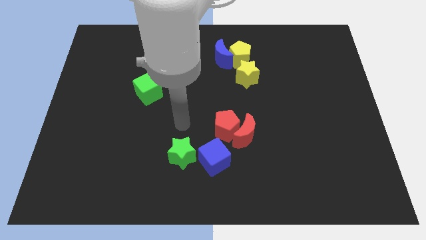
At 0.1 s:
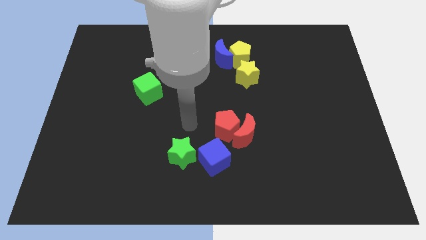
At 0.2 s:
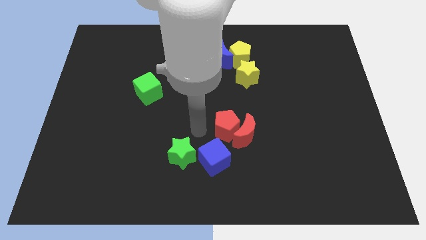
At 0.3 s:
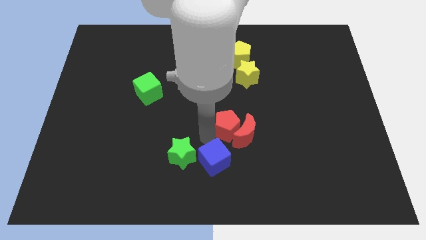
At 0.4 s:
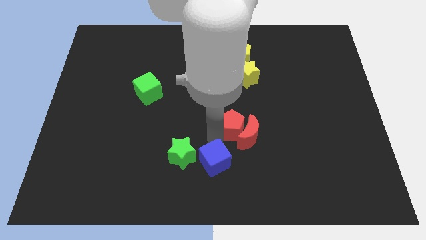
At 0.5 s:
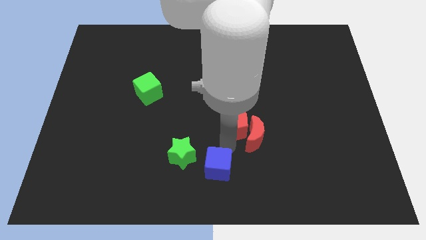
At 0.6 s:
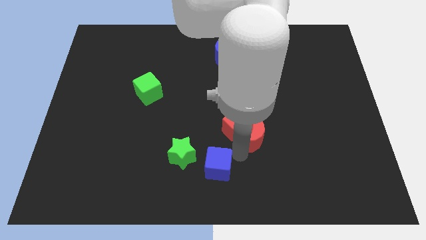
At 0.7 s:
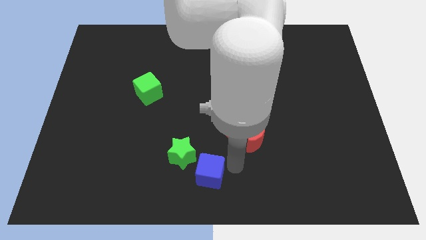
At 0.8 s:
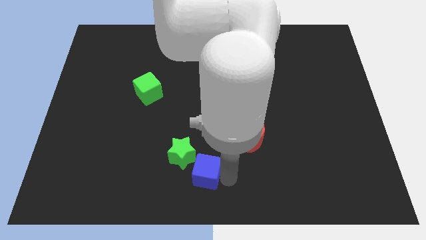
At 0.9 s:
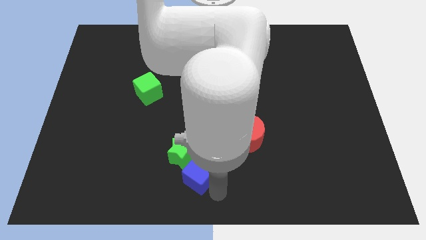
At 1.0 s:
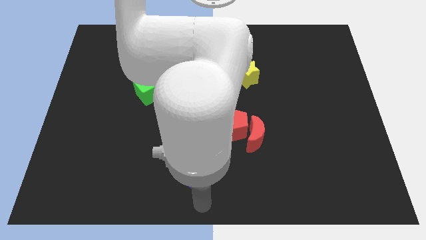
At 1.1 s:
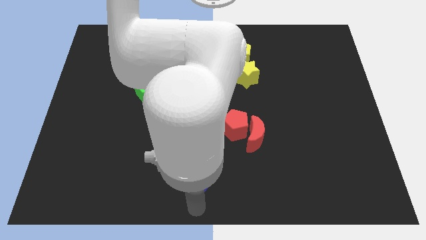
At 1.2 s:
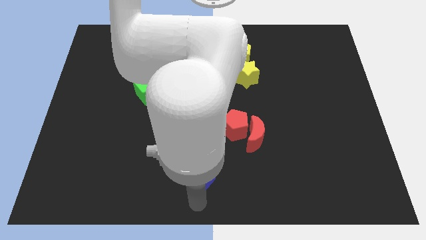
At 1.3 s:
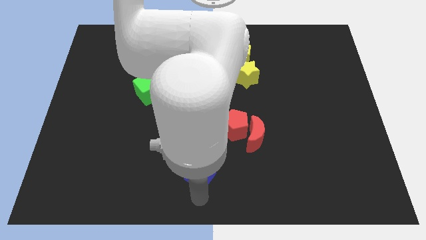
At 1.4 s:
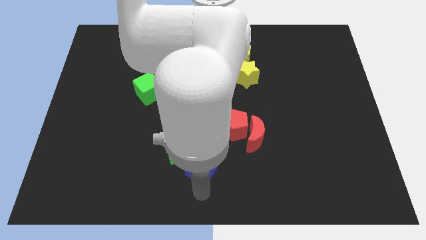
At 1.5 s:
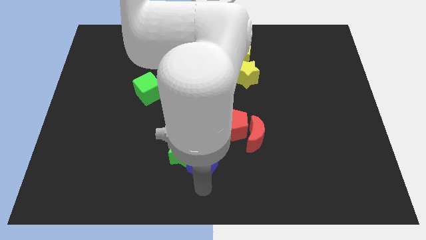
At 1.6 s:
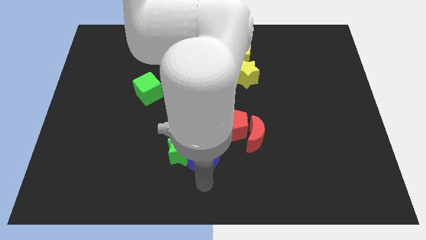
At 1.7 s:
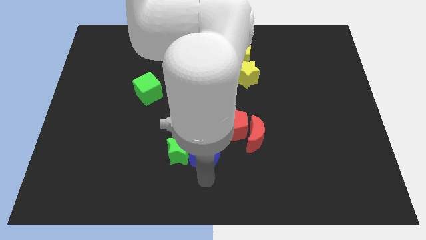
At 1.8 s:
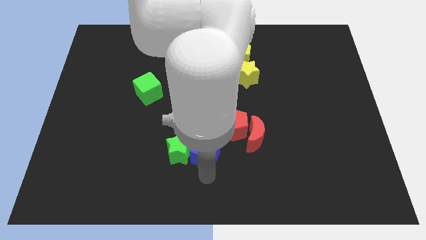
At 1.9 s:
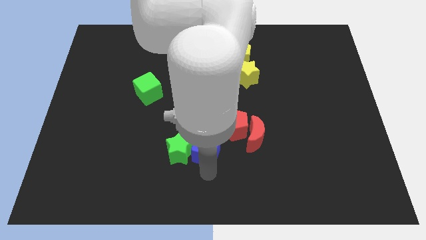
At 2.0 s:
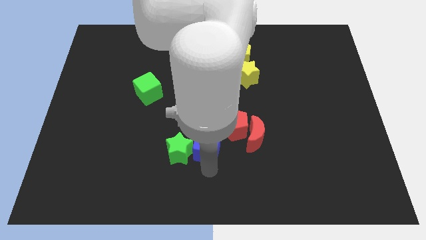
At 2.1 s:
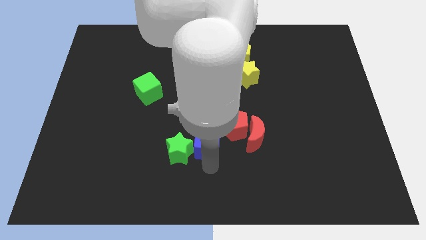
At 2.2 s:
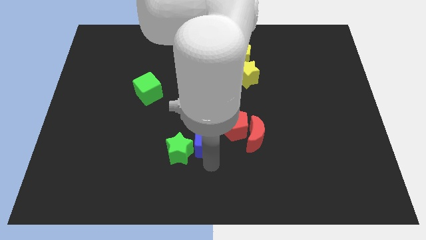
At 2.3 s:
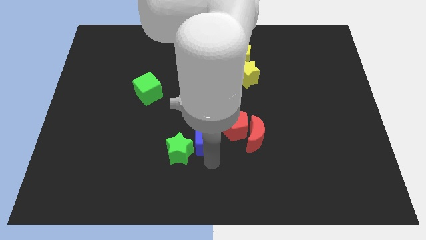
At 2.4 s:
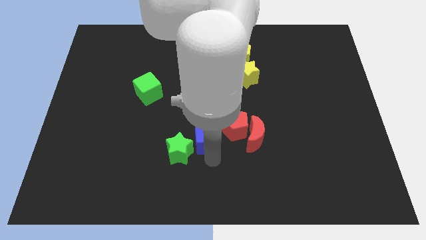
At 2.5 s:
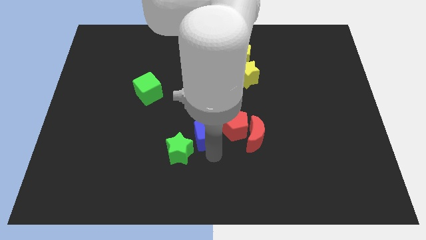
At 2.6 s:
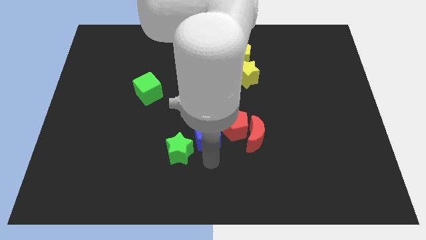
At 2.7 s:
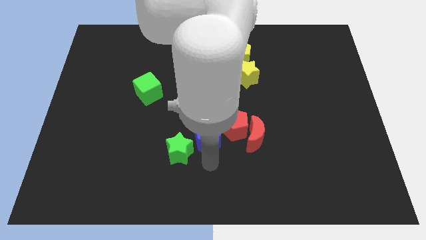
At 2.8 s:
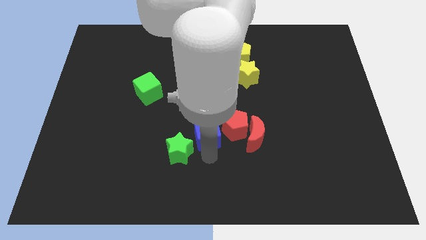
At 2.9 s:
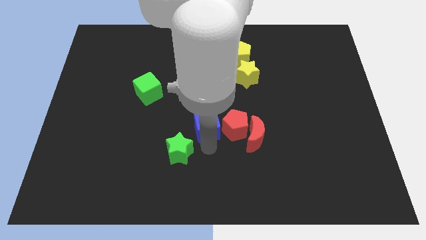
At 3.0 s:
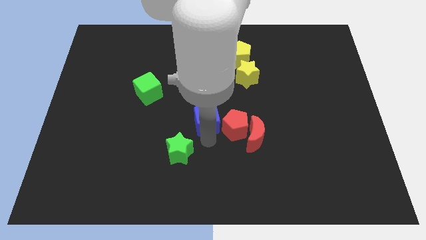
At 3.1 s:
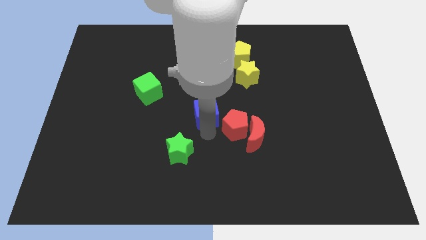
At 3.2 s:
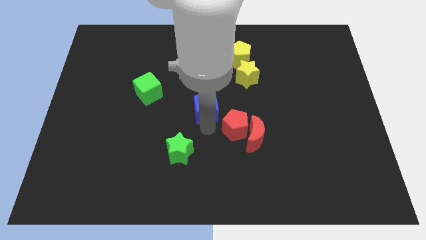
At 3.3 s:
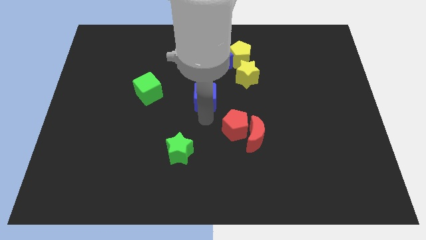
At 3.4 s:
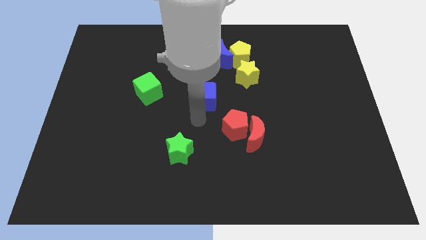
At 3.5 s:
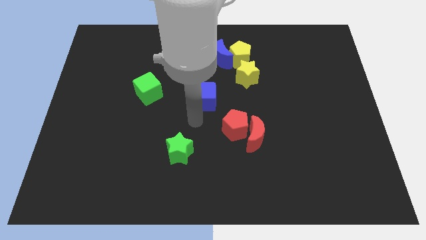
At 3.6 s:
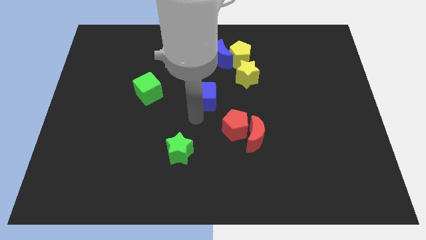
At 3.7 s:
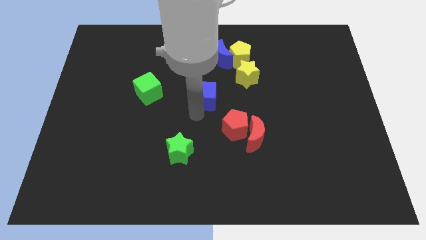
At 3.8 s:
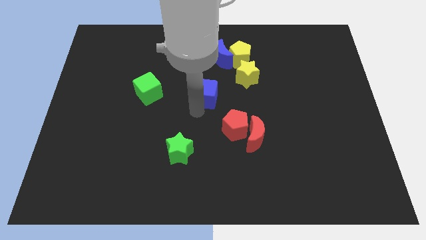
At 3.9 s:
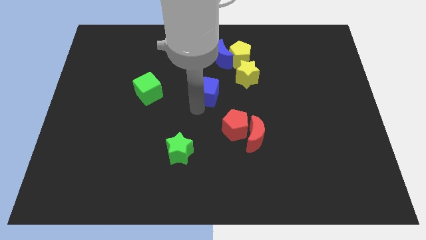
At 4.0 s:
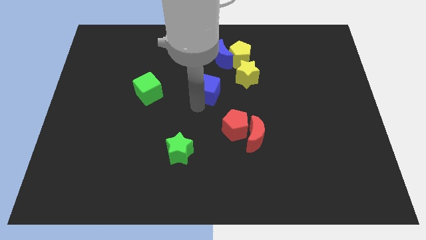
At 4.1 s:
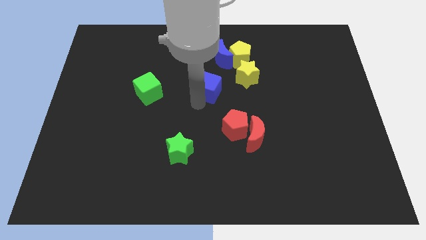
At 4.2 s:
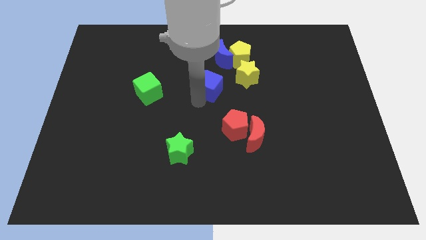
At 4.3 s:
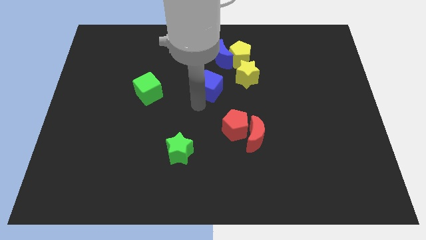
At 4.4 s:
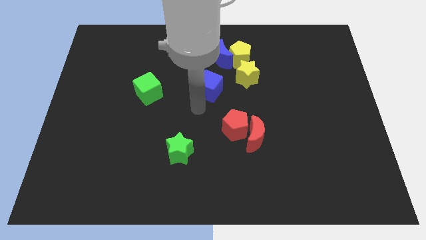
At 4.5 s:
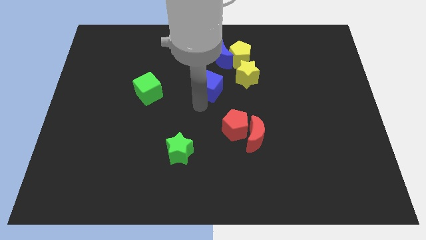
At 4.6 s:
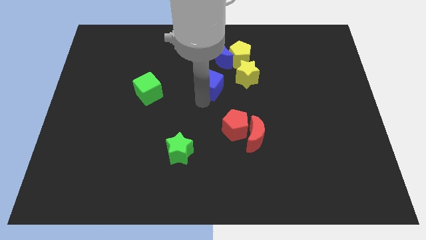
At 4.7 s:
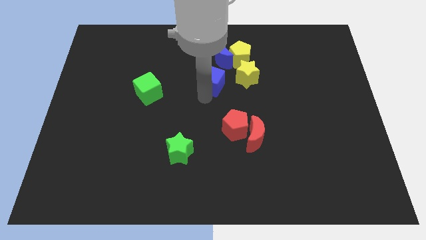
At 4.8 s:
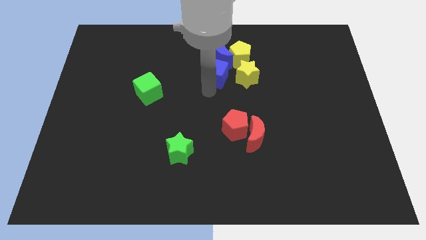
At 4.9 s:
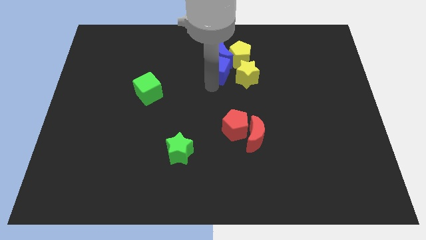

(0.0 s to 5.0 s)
slide the blue cube next to the blue moon

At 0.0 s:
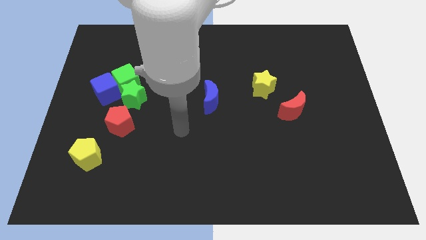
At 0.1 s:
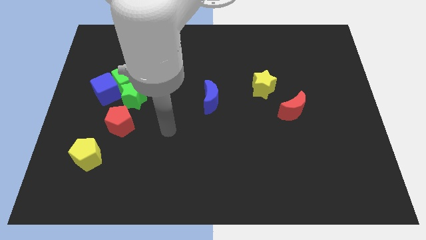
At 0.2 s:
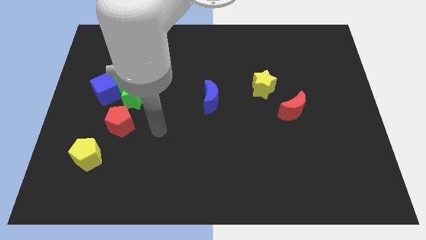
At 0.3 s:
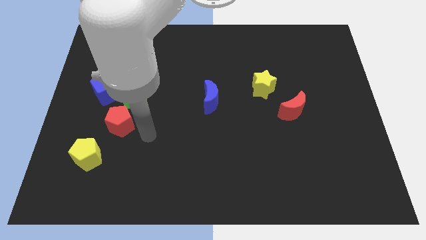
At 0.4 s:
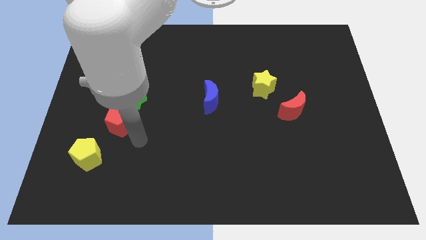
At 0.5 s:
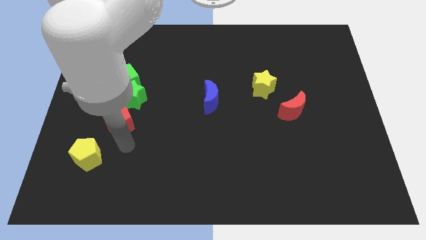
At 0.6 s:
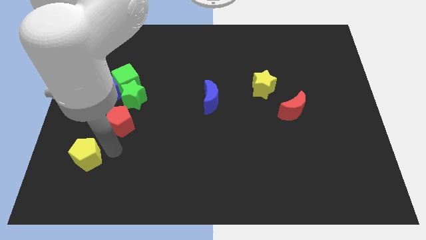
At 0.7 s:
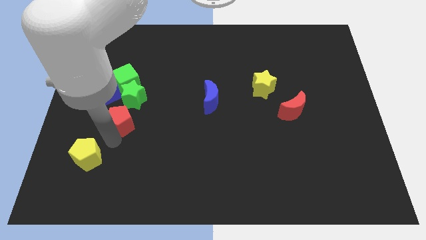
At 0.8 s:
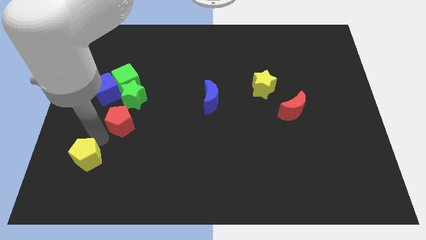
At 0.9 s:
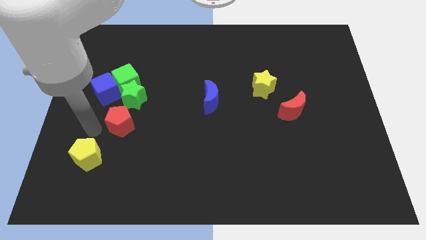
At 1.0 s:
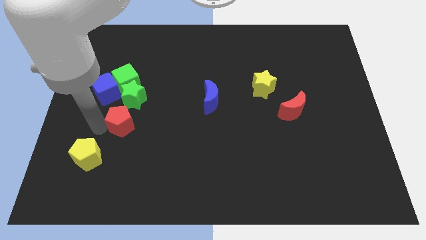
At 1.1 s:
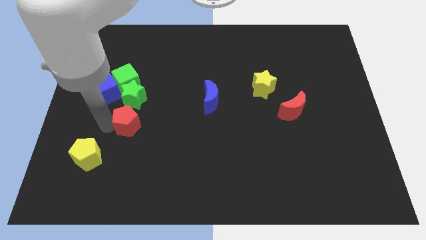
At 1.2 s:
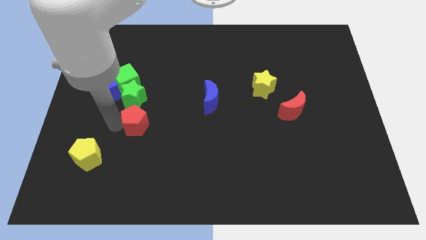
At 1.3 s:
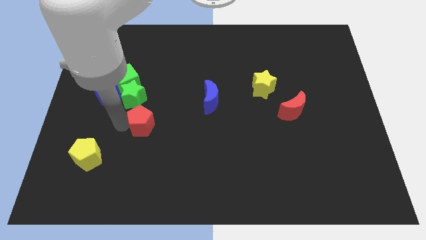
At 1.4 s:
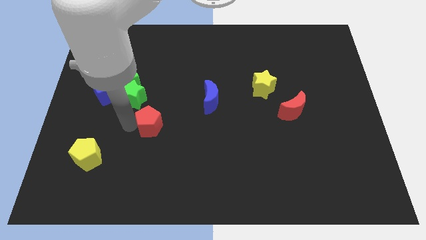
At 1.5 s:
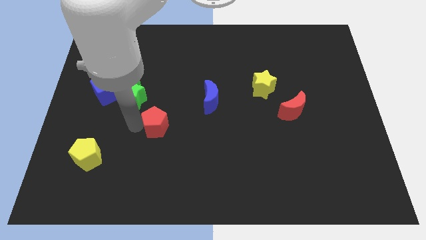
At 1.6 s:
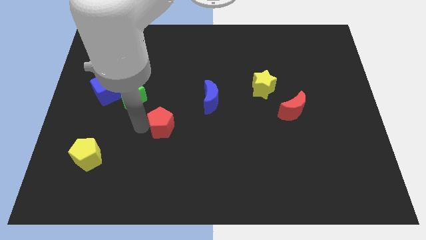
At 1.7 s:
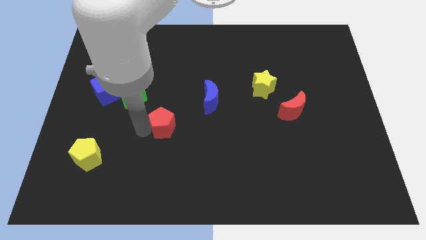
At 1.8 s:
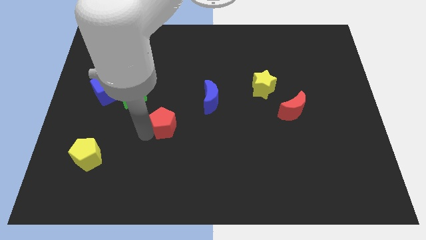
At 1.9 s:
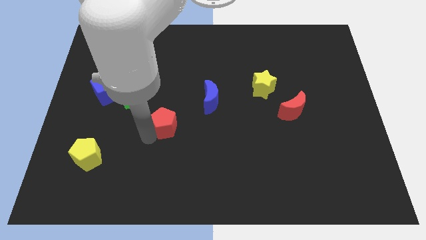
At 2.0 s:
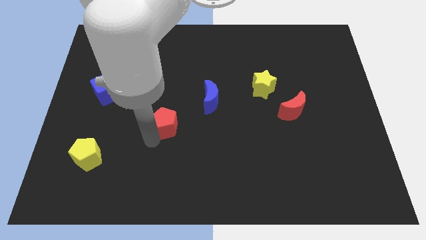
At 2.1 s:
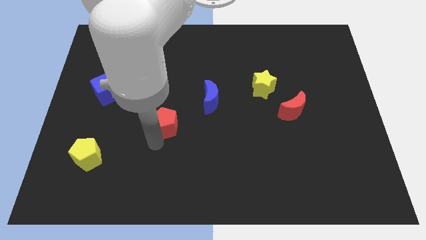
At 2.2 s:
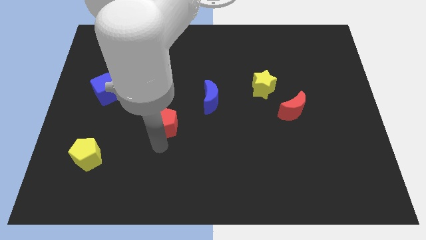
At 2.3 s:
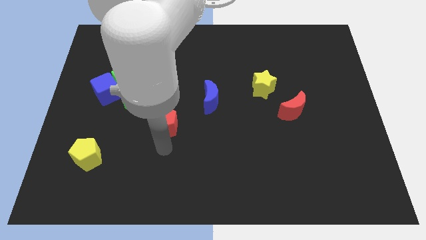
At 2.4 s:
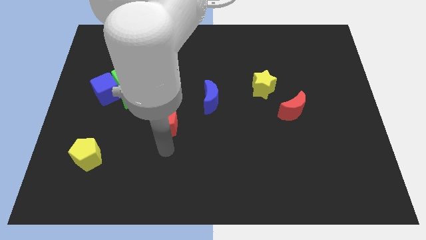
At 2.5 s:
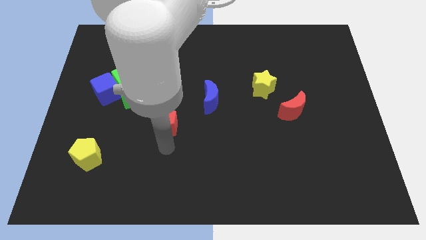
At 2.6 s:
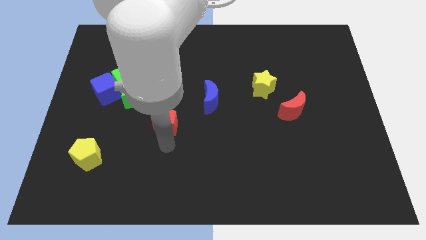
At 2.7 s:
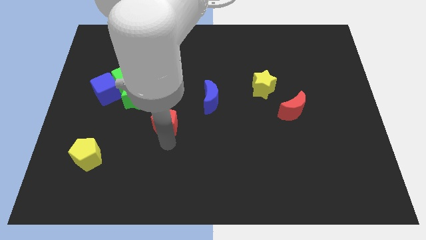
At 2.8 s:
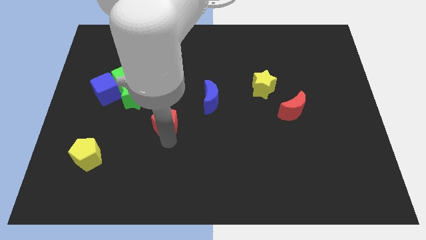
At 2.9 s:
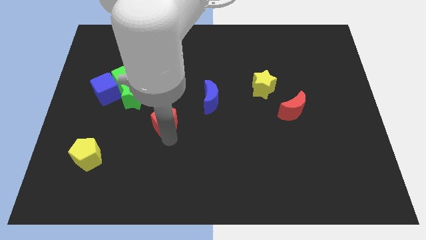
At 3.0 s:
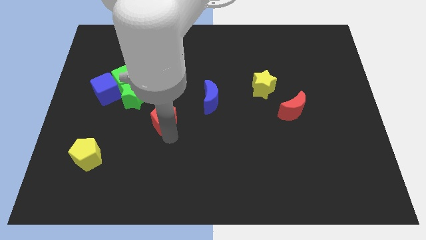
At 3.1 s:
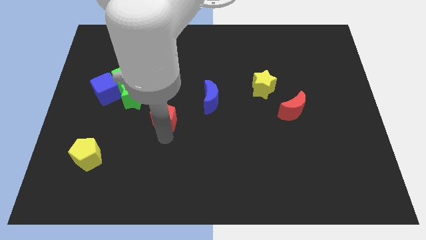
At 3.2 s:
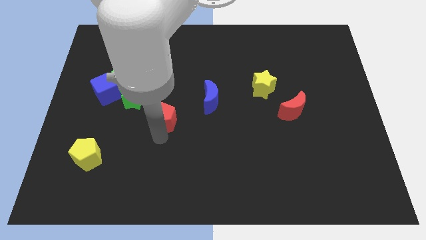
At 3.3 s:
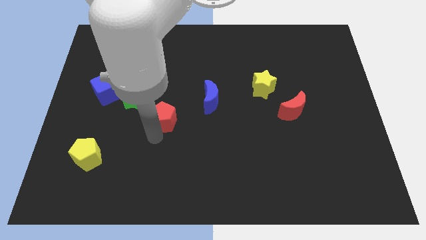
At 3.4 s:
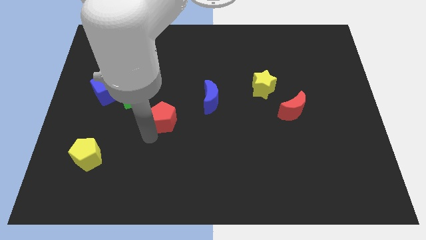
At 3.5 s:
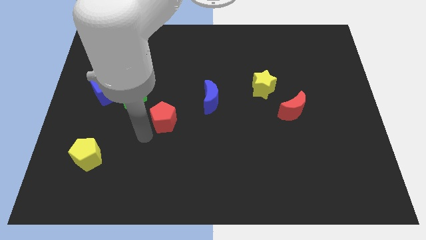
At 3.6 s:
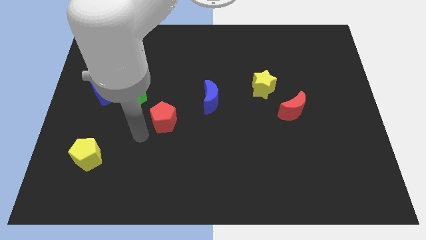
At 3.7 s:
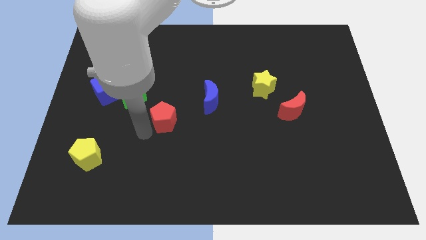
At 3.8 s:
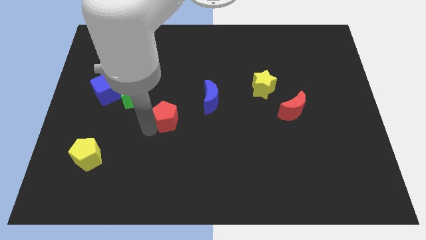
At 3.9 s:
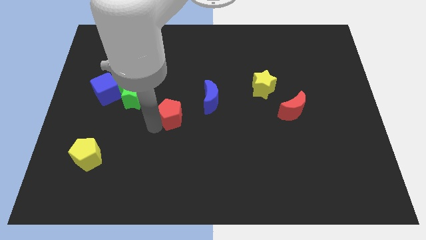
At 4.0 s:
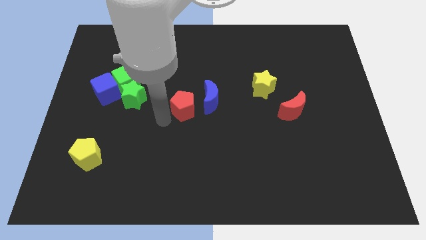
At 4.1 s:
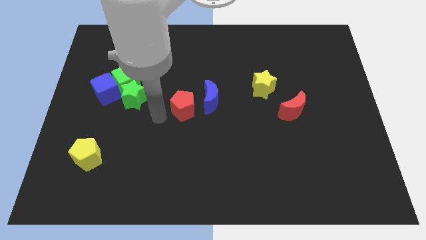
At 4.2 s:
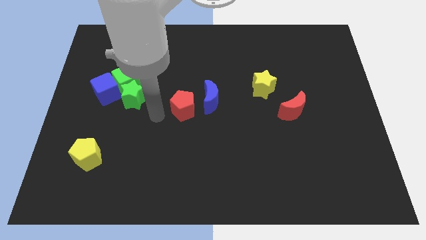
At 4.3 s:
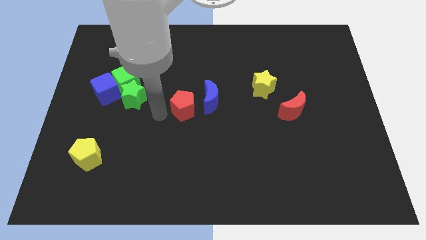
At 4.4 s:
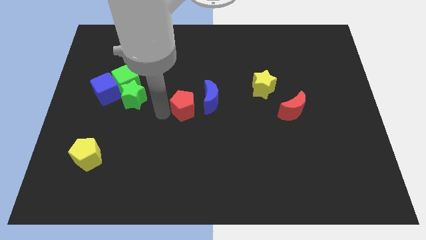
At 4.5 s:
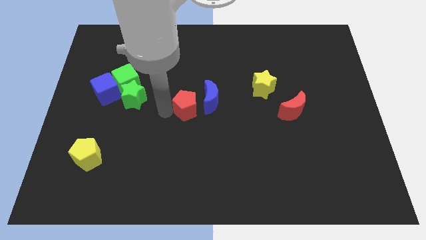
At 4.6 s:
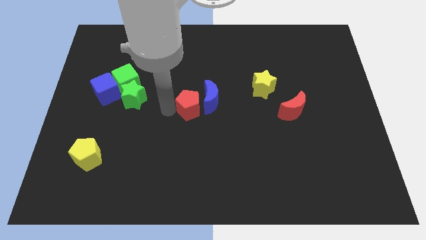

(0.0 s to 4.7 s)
push the red pentagon close to the blue moon
